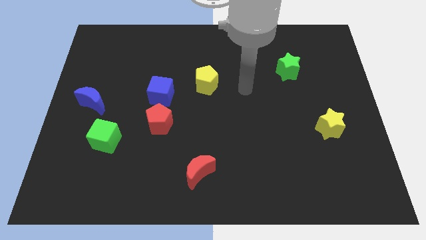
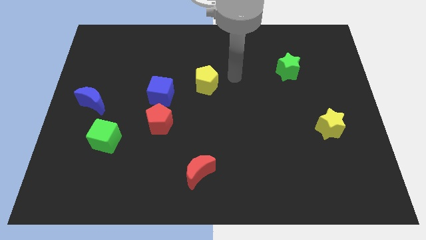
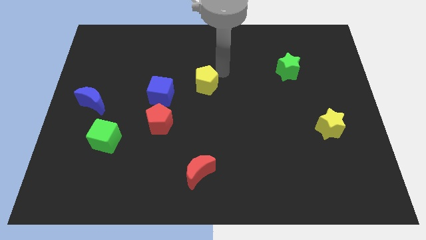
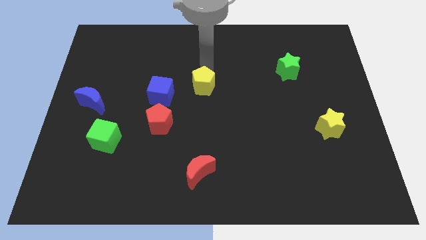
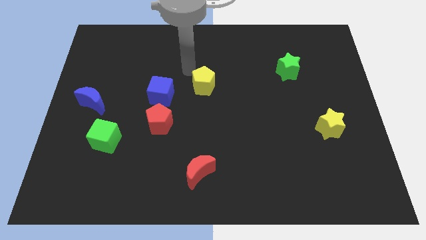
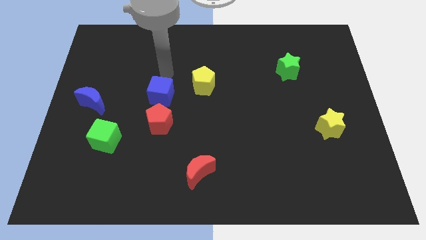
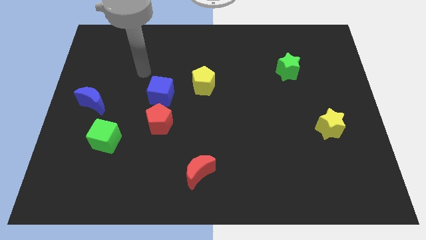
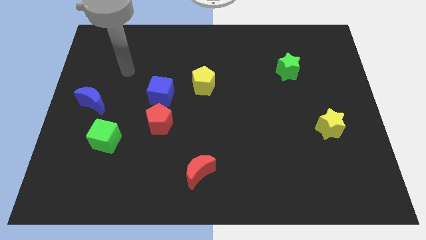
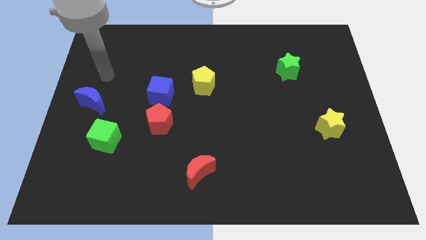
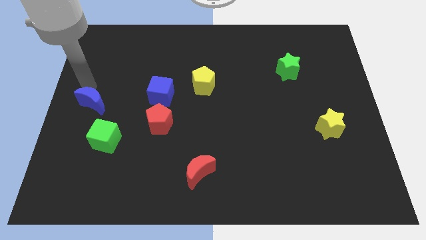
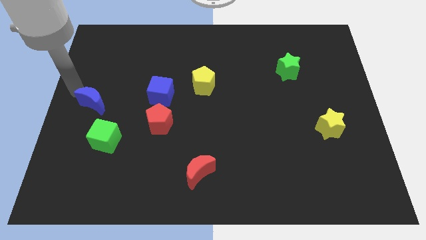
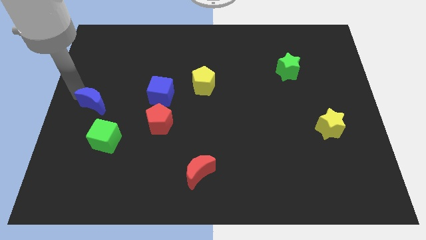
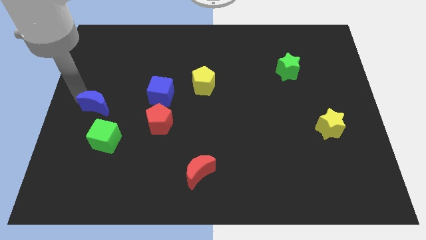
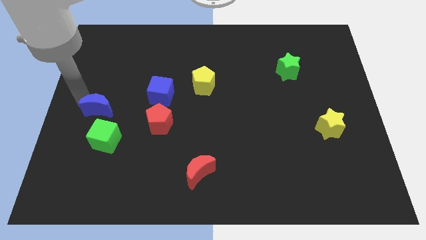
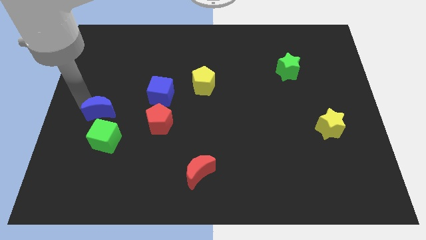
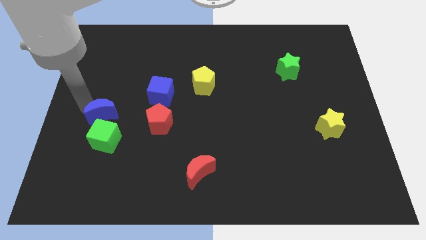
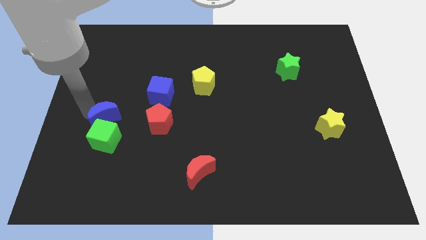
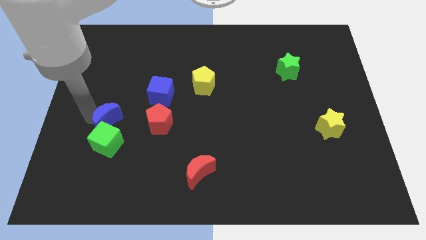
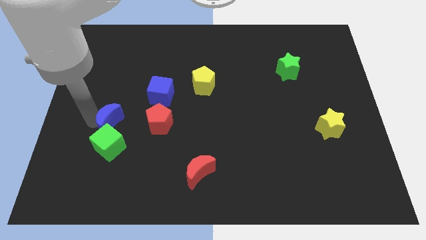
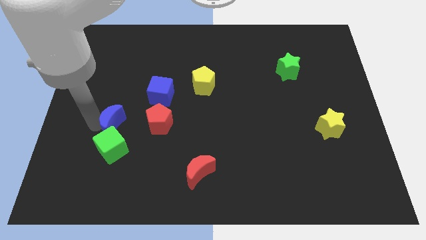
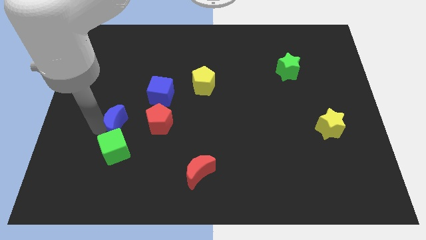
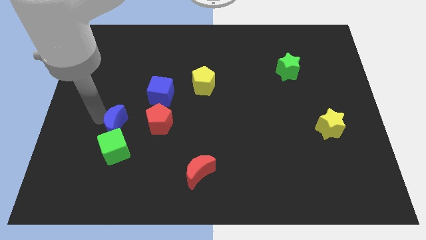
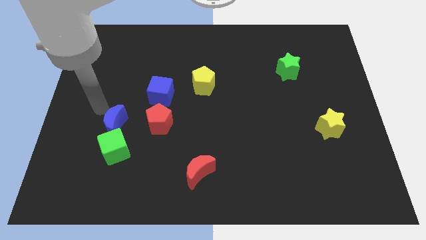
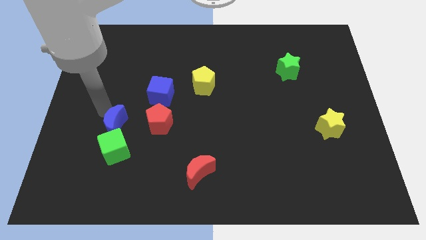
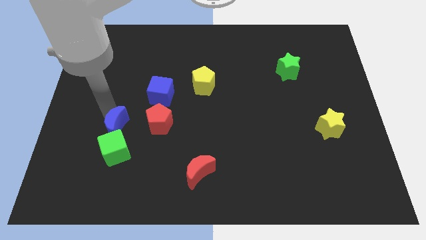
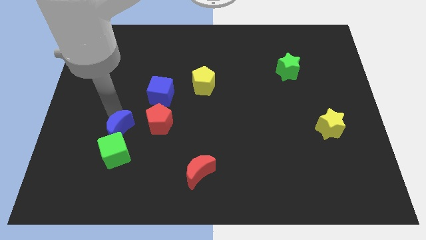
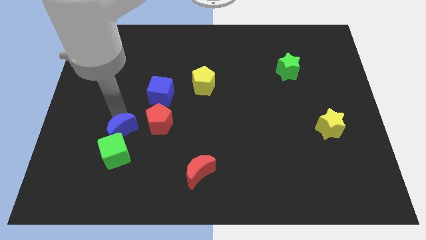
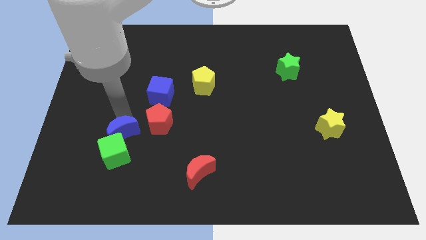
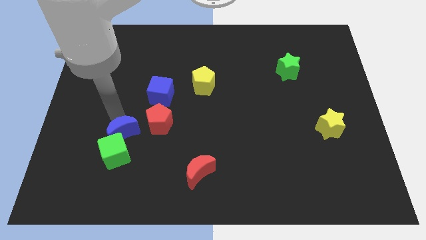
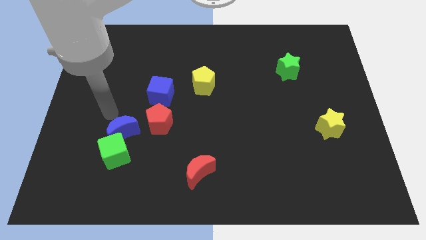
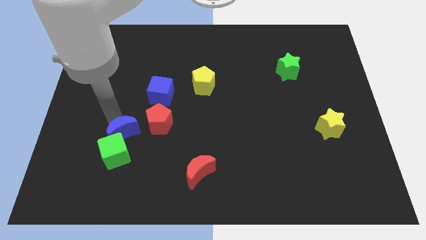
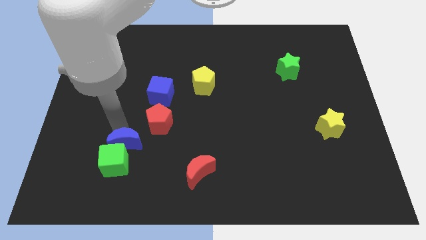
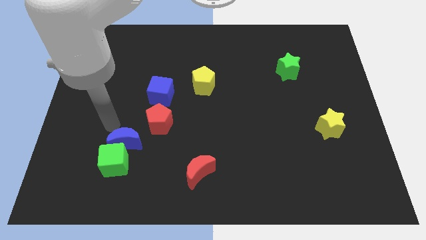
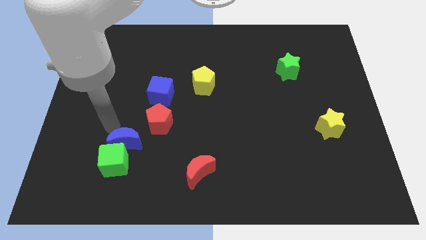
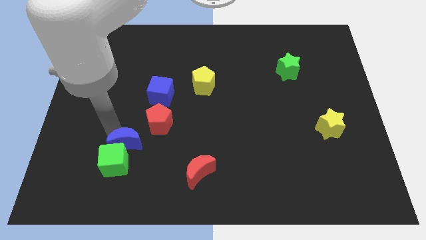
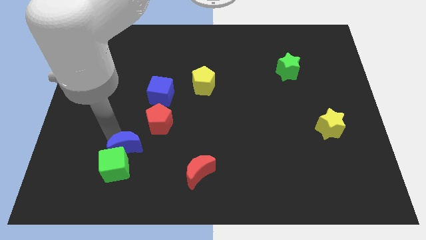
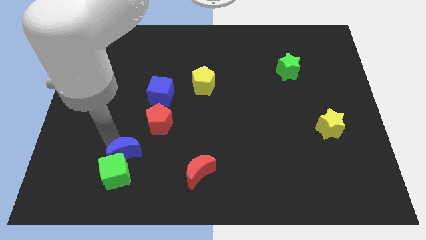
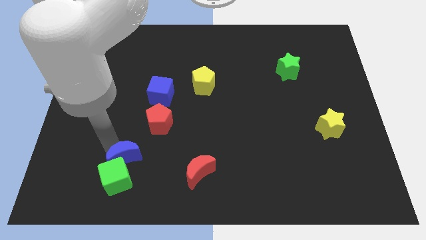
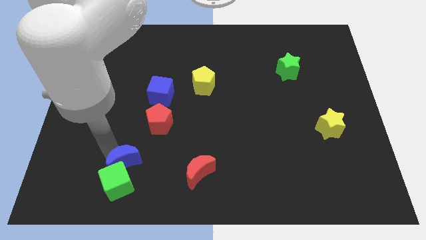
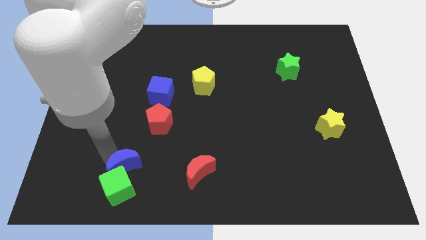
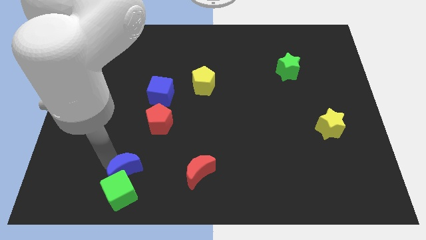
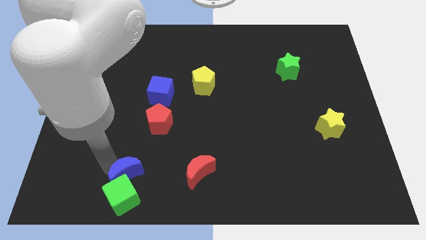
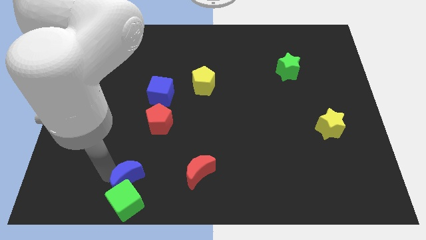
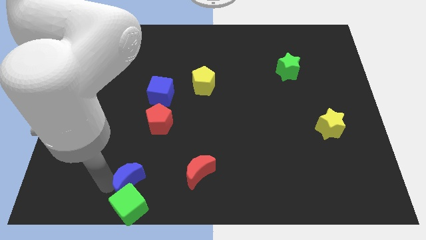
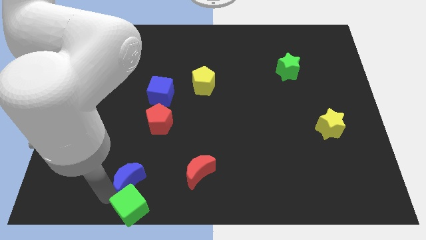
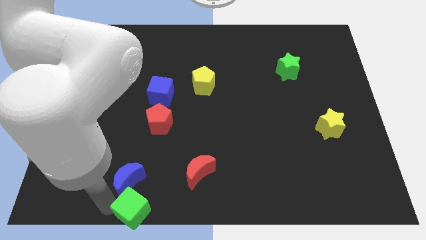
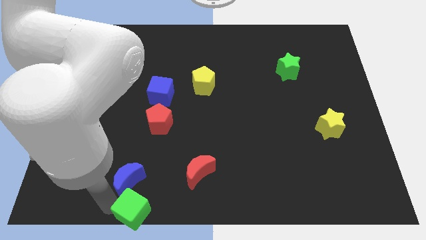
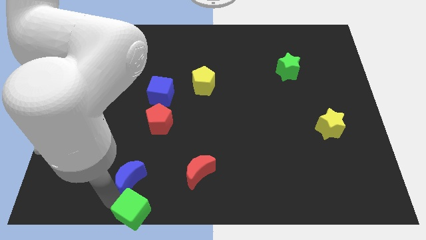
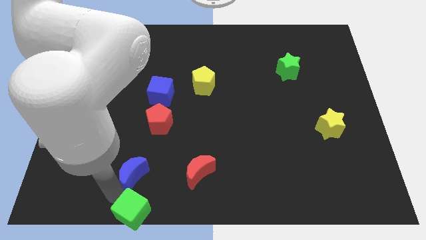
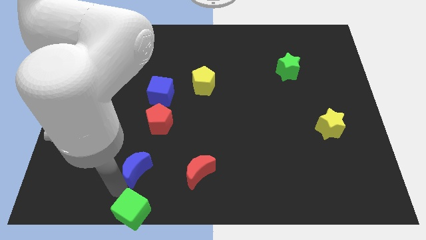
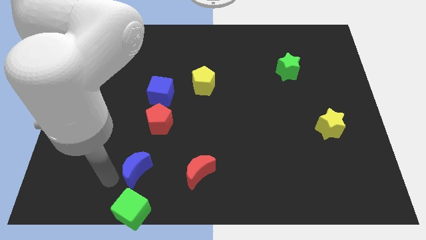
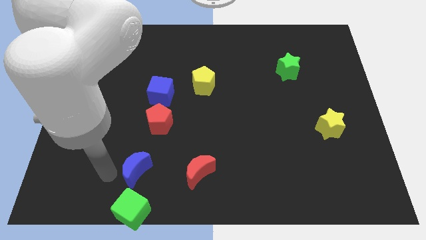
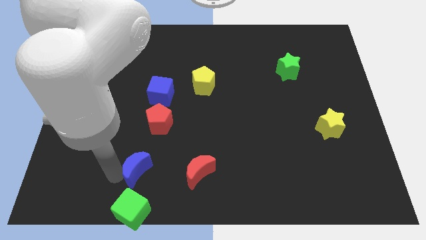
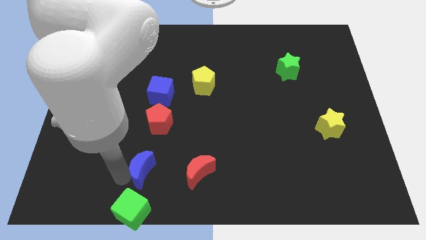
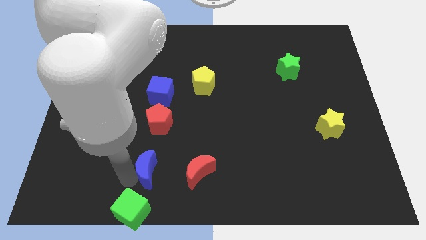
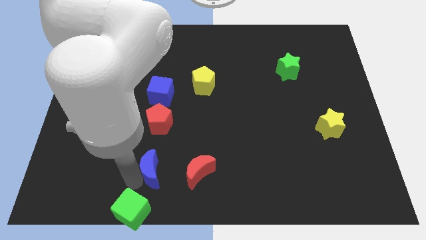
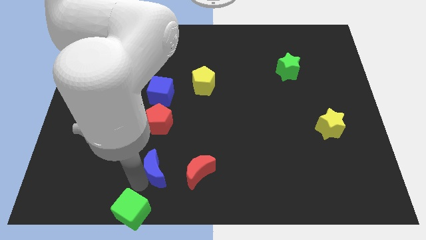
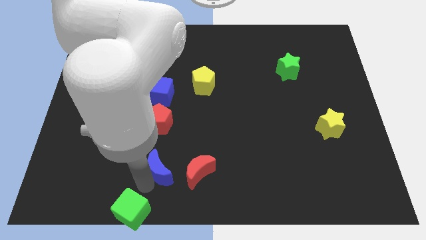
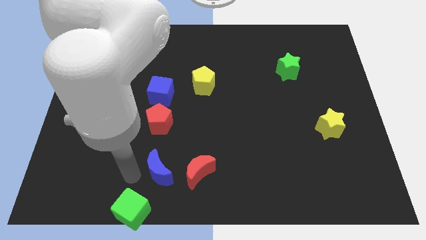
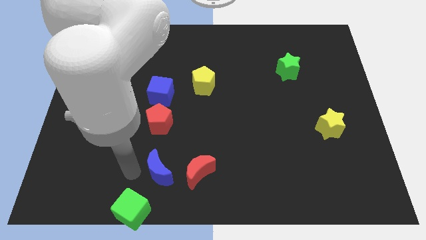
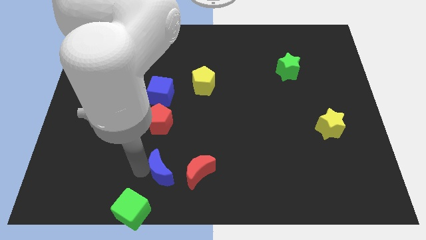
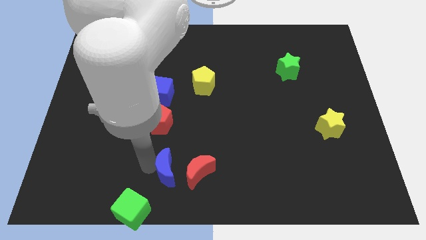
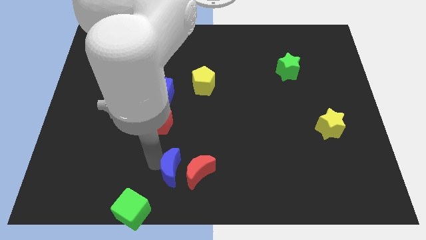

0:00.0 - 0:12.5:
push the blue moon close to the red moon

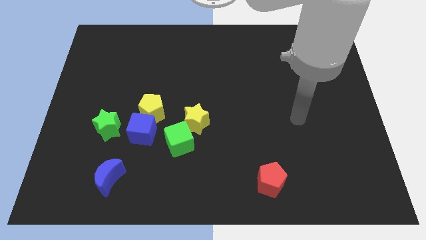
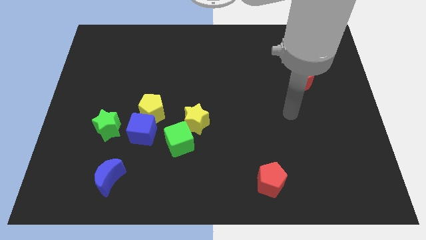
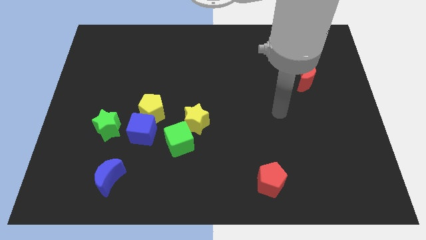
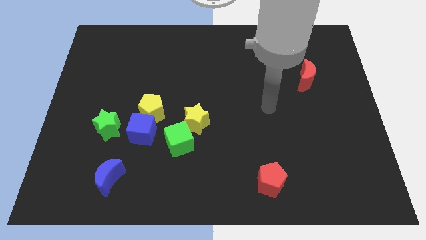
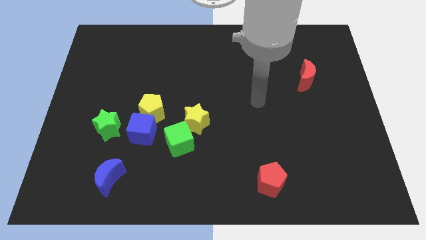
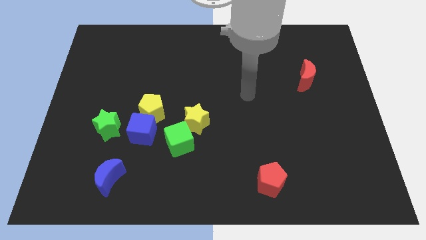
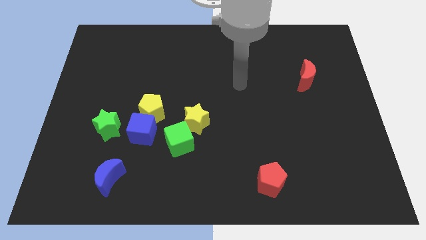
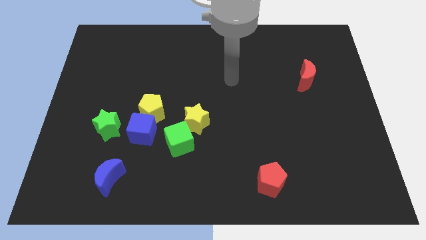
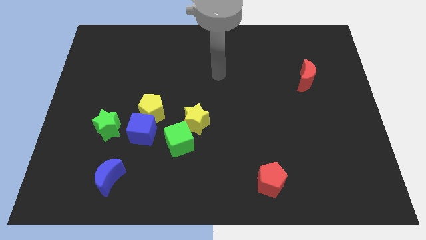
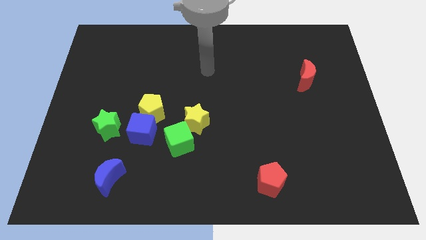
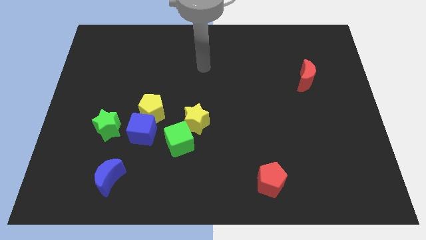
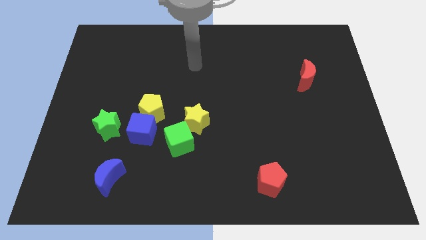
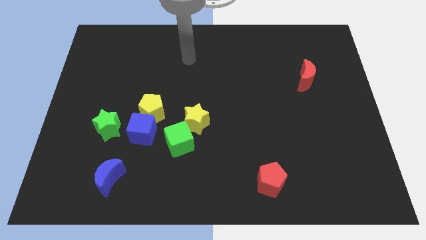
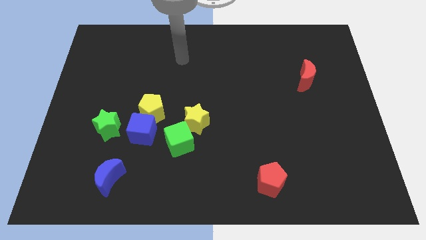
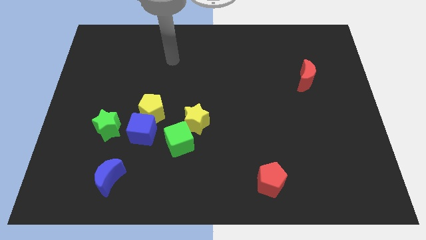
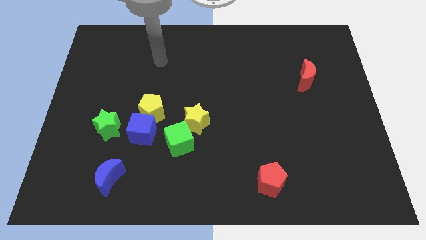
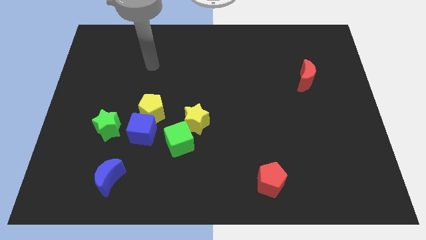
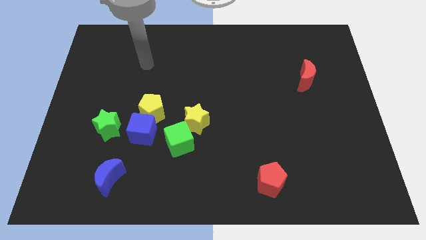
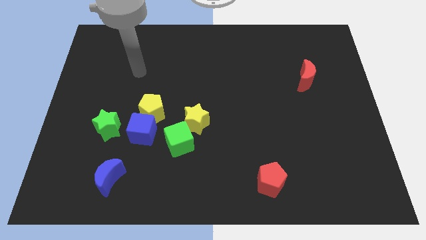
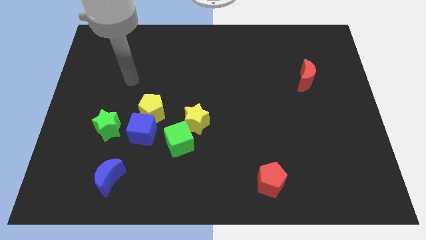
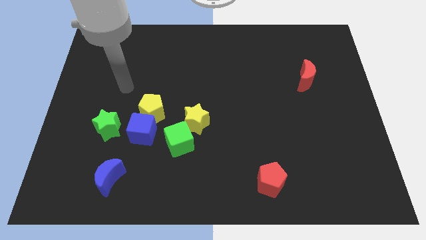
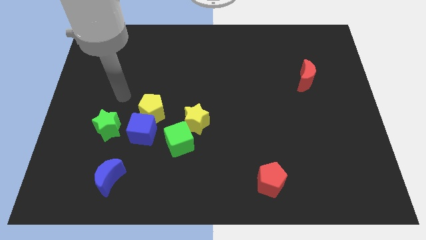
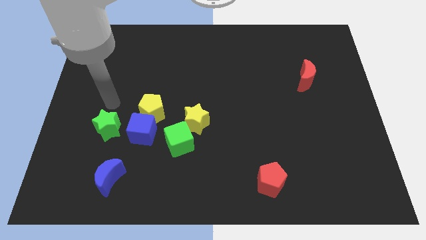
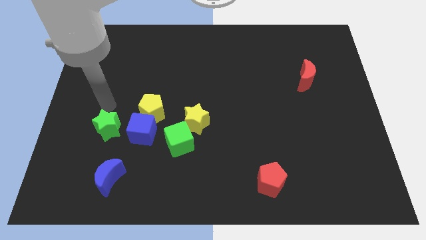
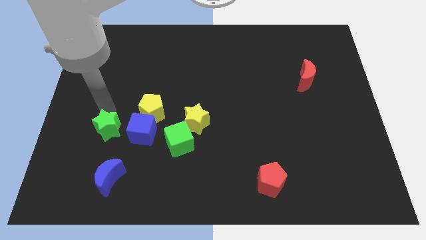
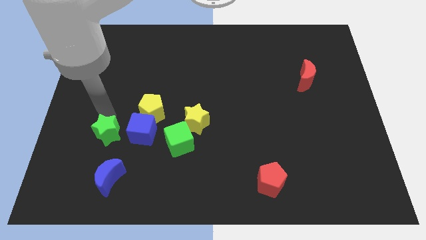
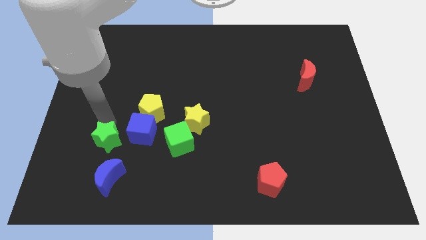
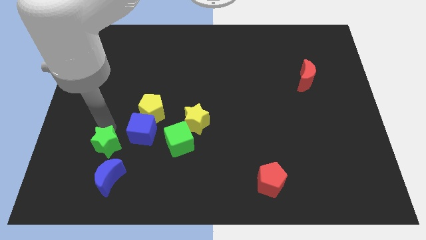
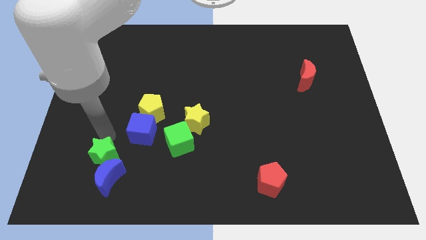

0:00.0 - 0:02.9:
slide the green star next to the blue moon
